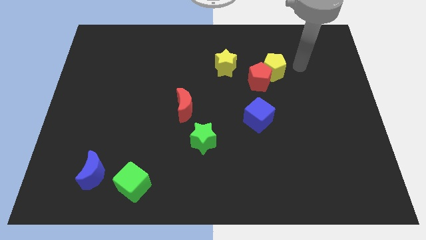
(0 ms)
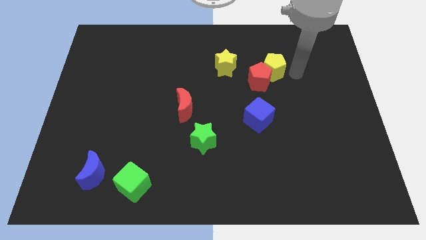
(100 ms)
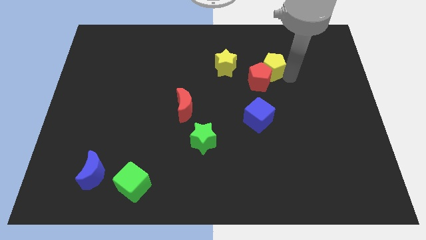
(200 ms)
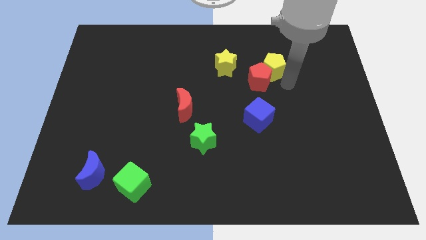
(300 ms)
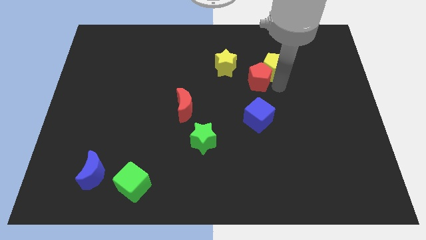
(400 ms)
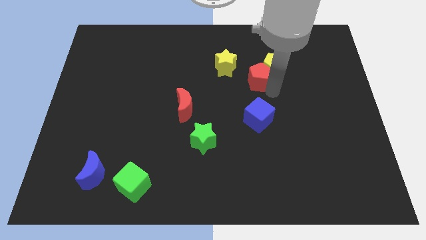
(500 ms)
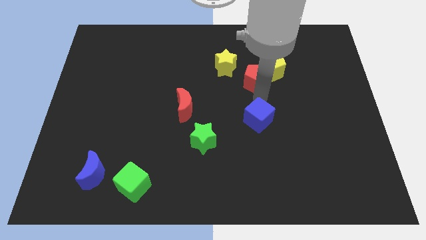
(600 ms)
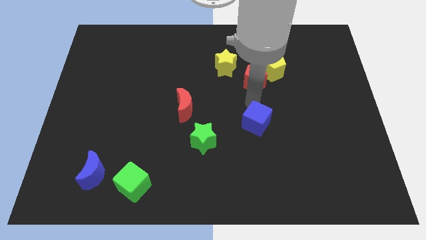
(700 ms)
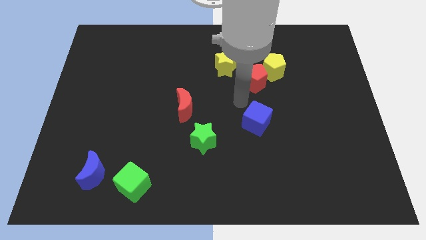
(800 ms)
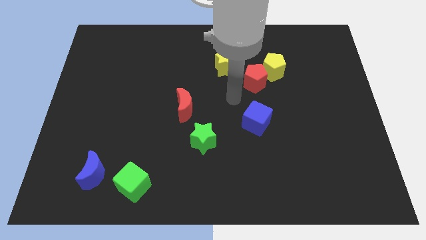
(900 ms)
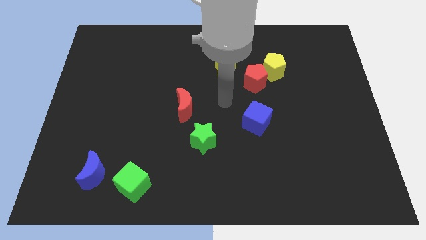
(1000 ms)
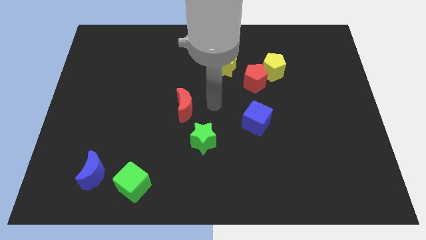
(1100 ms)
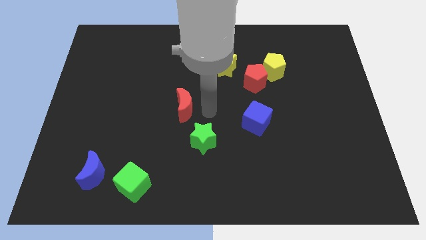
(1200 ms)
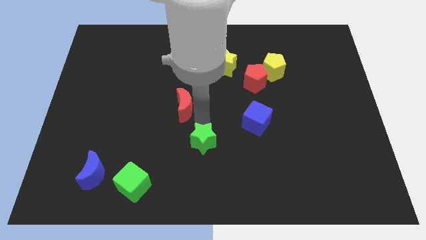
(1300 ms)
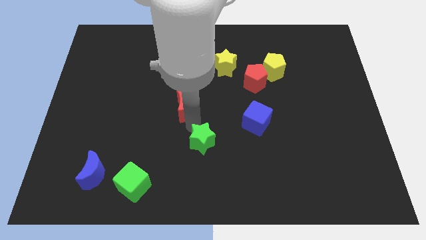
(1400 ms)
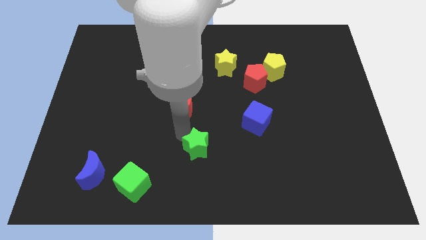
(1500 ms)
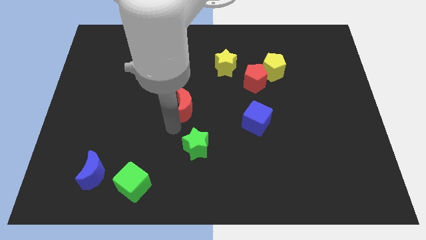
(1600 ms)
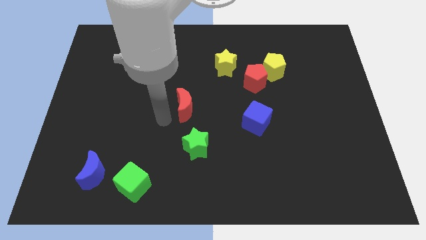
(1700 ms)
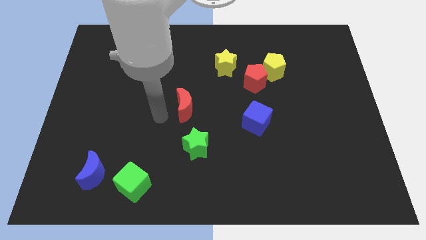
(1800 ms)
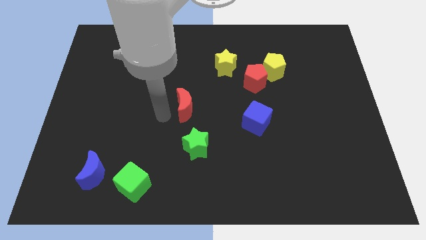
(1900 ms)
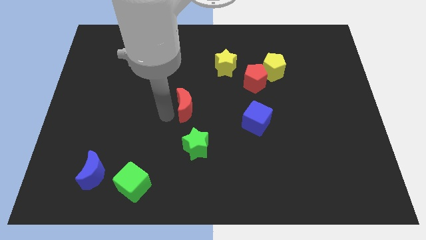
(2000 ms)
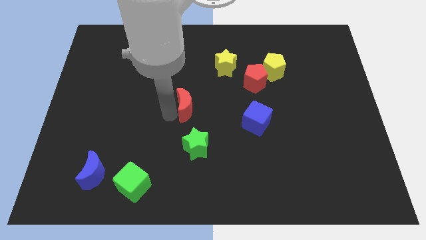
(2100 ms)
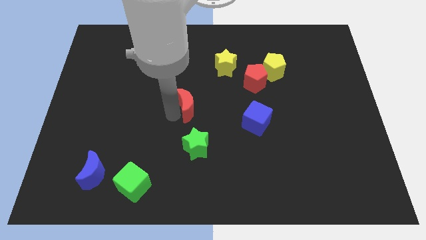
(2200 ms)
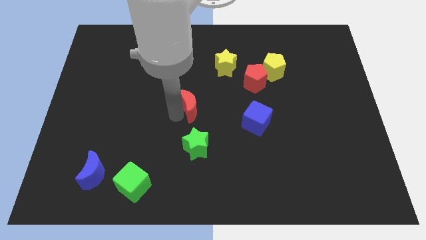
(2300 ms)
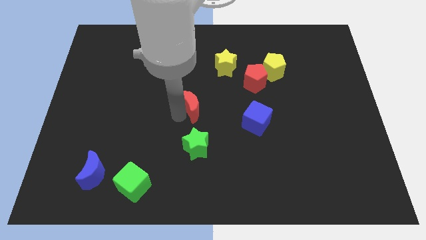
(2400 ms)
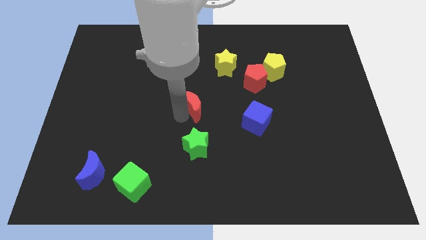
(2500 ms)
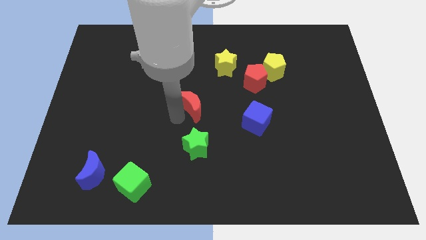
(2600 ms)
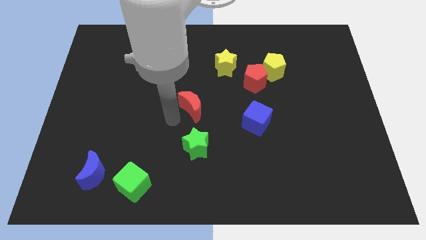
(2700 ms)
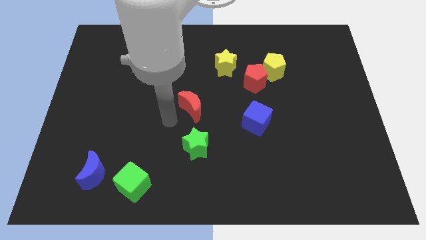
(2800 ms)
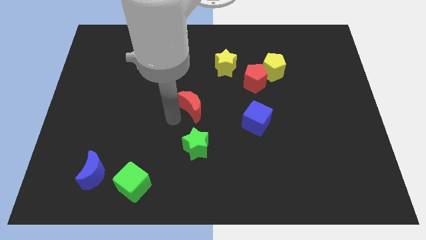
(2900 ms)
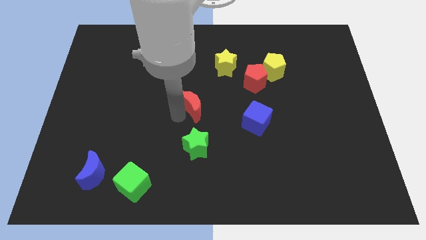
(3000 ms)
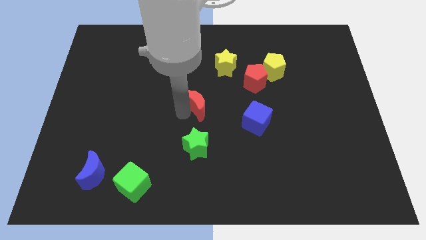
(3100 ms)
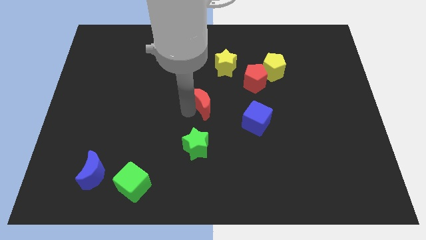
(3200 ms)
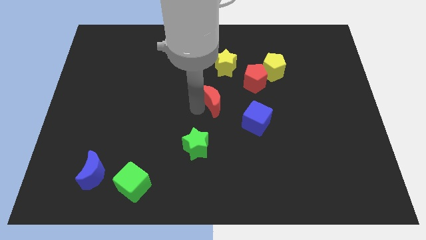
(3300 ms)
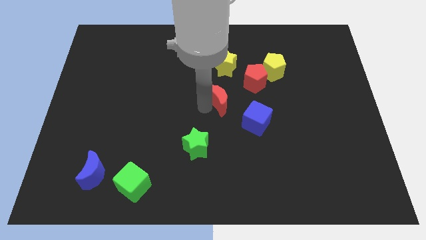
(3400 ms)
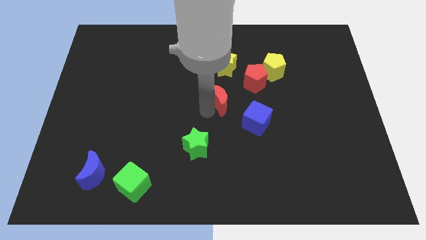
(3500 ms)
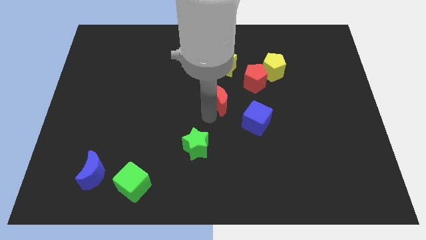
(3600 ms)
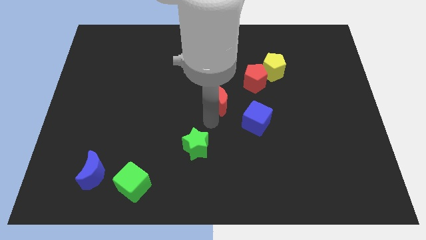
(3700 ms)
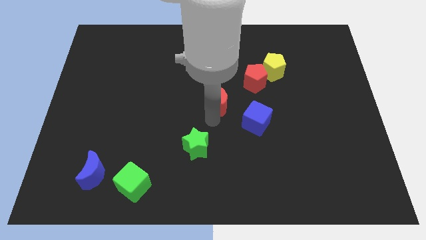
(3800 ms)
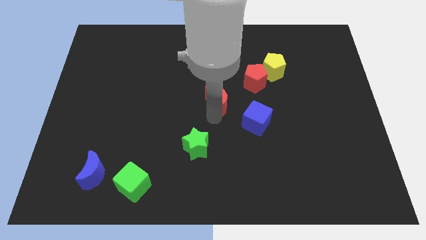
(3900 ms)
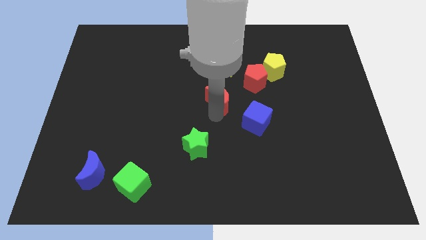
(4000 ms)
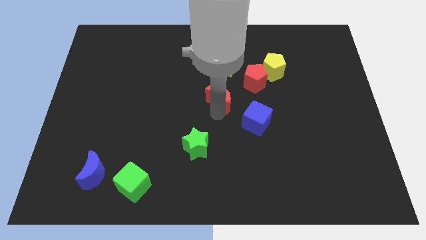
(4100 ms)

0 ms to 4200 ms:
slightly push the red moon upwards and right

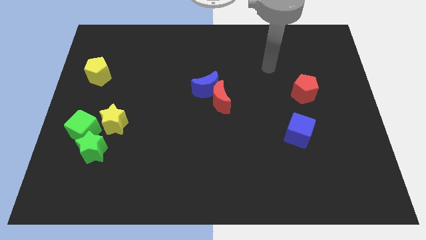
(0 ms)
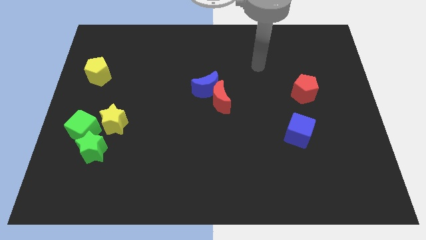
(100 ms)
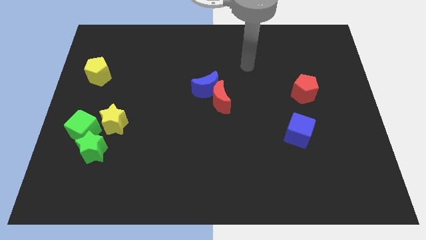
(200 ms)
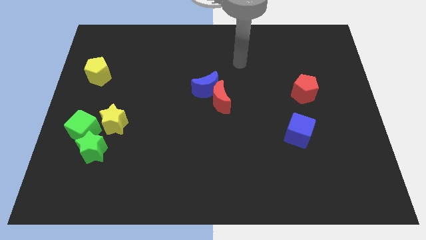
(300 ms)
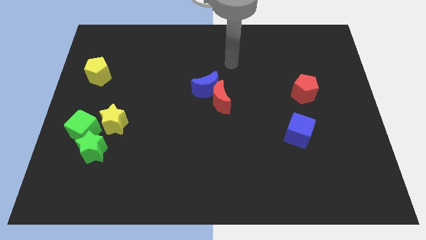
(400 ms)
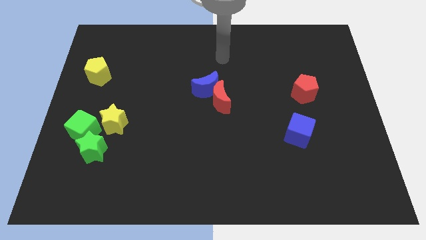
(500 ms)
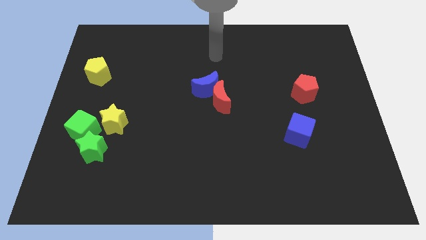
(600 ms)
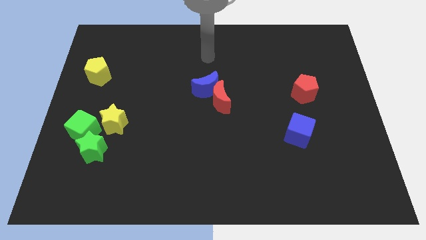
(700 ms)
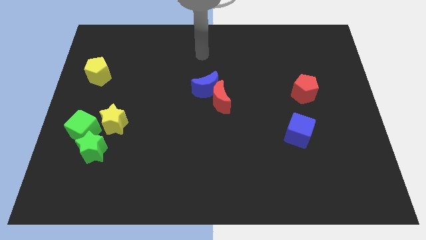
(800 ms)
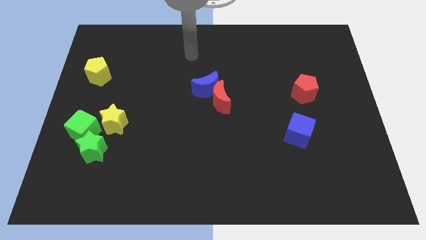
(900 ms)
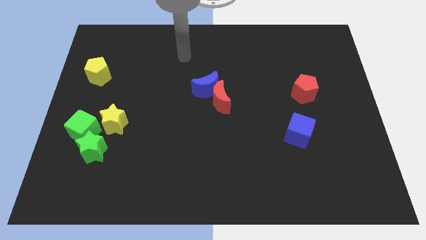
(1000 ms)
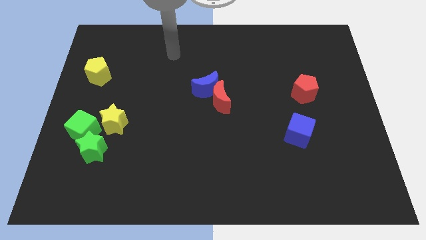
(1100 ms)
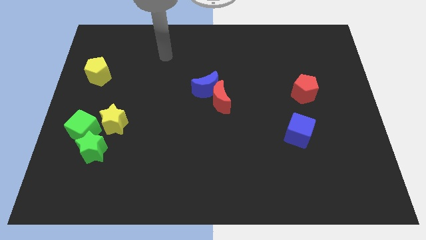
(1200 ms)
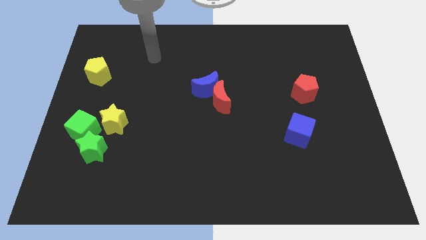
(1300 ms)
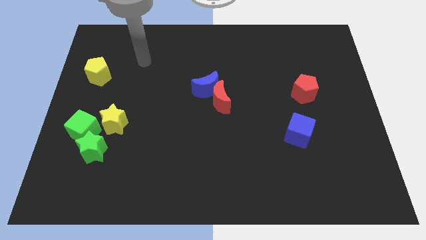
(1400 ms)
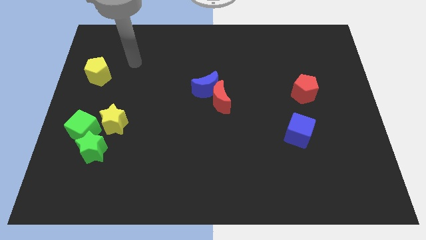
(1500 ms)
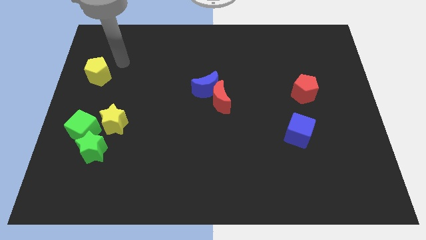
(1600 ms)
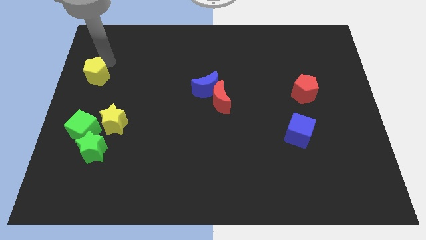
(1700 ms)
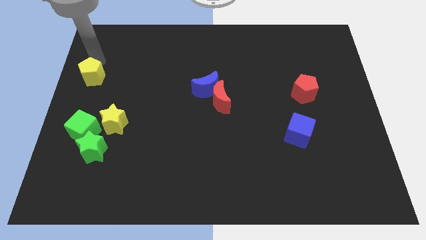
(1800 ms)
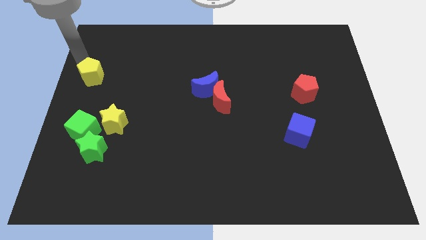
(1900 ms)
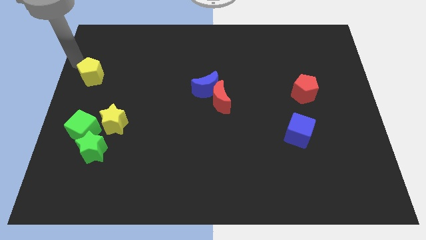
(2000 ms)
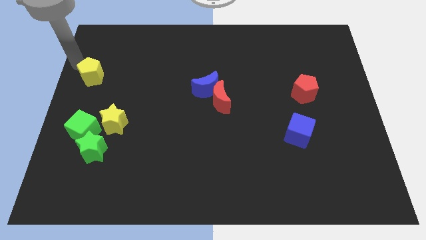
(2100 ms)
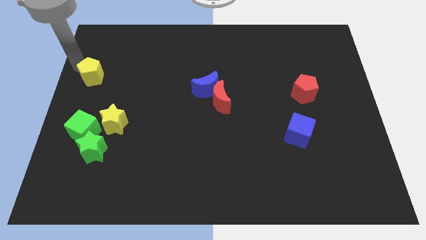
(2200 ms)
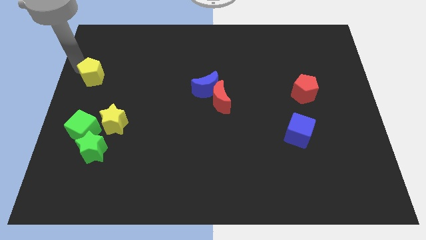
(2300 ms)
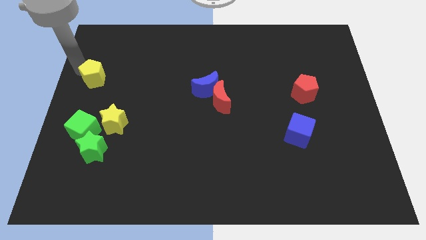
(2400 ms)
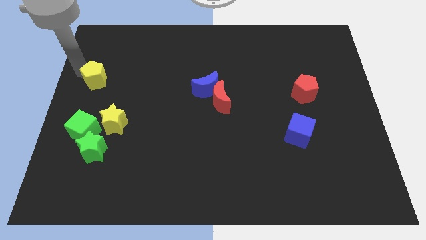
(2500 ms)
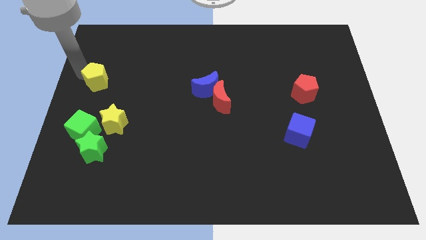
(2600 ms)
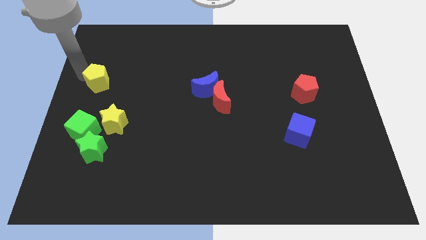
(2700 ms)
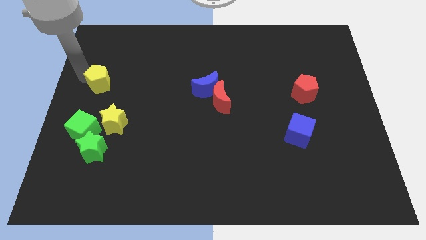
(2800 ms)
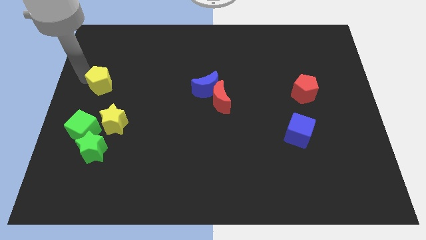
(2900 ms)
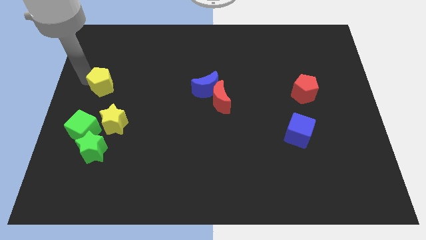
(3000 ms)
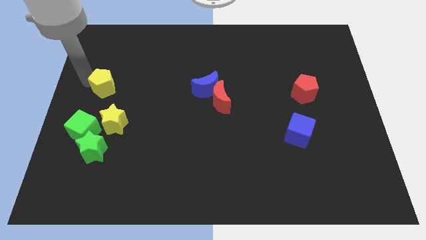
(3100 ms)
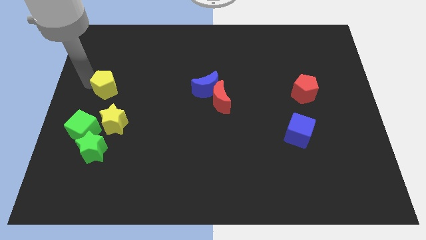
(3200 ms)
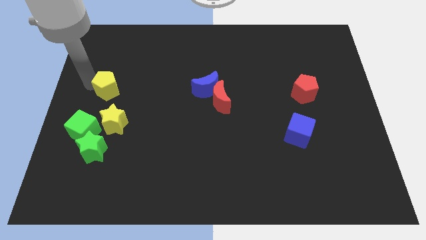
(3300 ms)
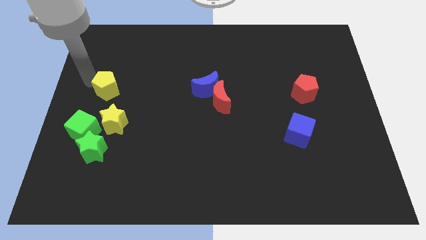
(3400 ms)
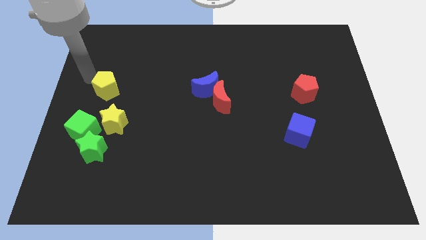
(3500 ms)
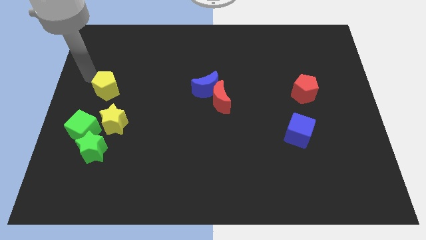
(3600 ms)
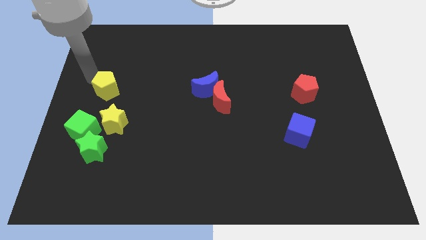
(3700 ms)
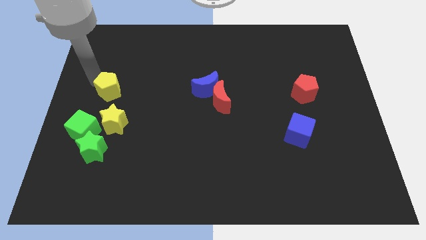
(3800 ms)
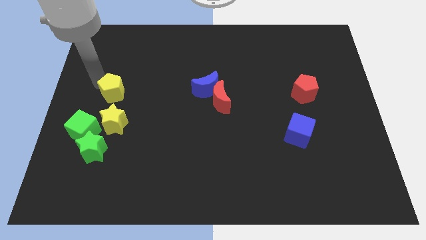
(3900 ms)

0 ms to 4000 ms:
slide the yellow pentagon down and then right a bit
